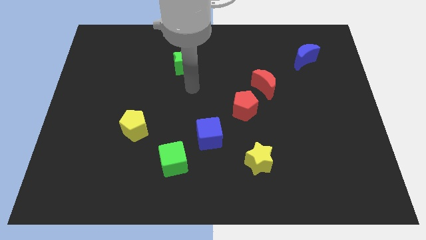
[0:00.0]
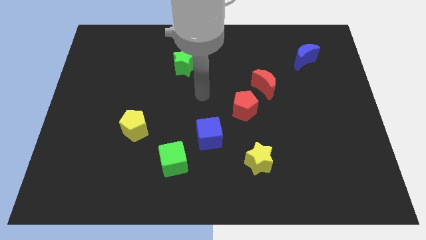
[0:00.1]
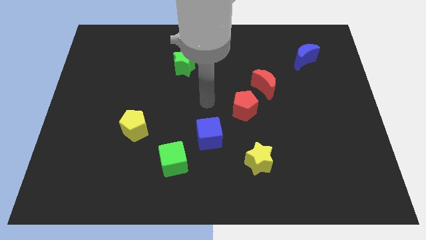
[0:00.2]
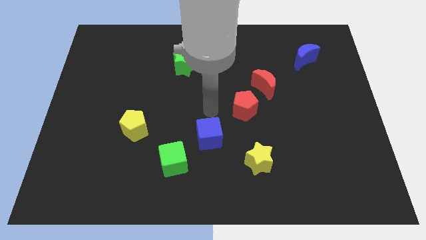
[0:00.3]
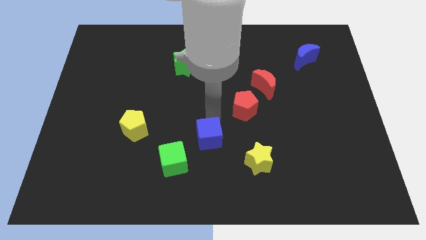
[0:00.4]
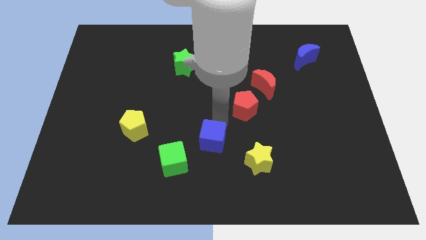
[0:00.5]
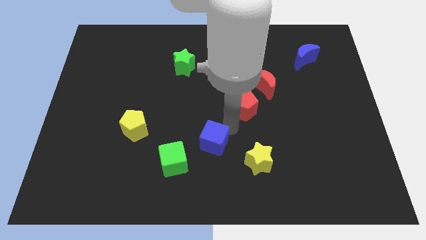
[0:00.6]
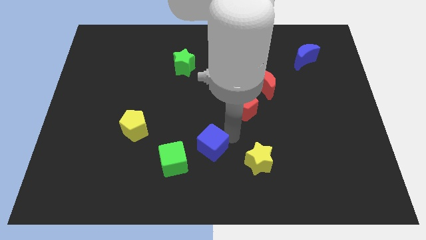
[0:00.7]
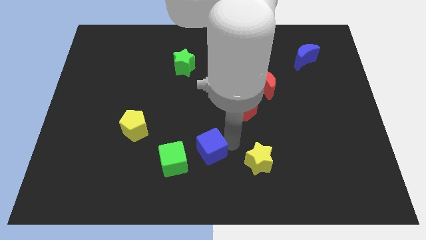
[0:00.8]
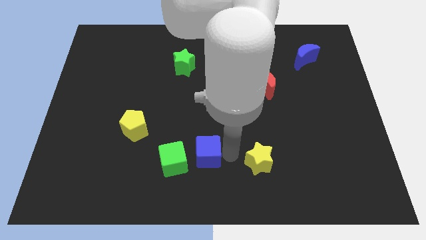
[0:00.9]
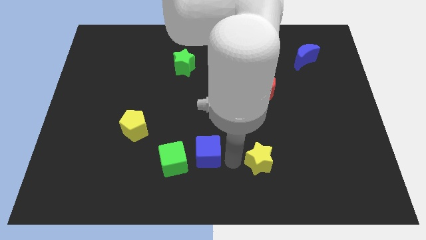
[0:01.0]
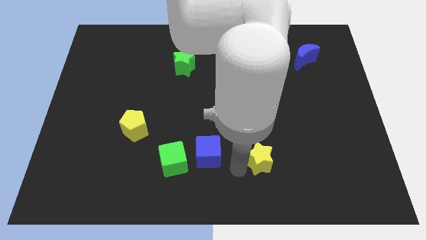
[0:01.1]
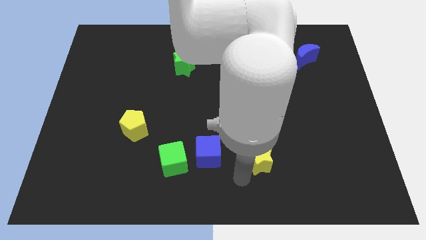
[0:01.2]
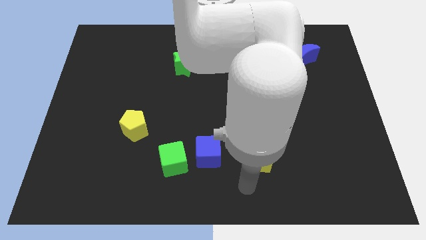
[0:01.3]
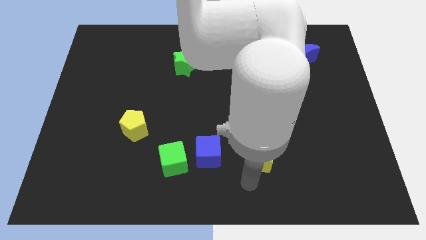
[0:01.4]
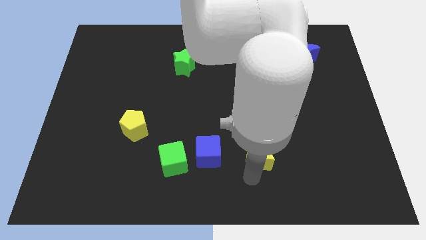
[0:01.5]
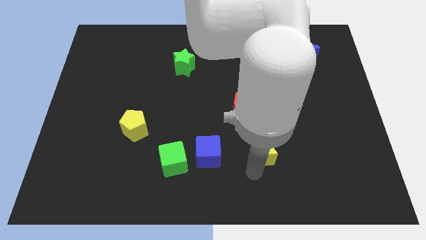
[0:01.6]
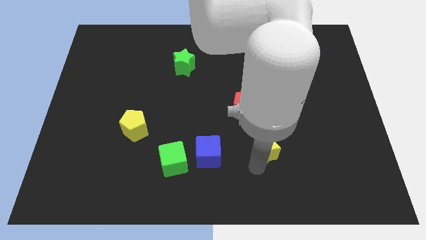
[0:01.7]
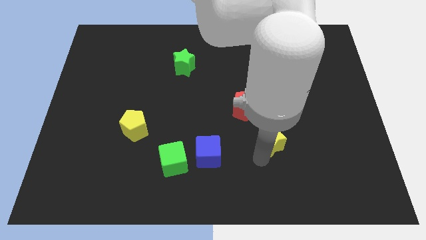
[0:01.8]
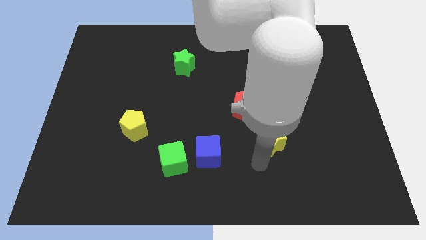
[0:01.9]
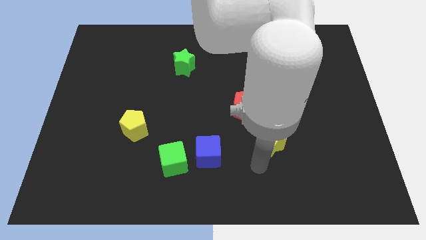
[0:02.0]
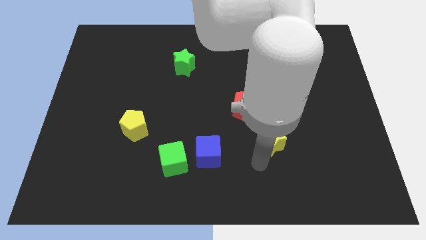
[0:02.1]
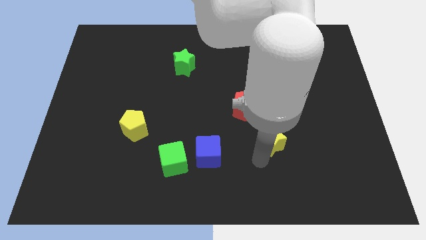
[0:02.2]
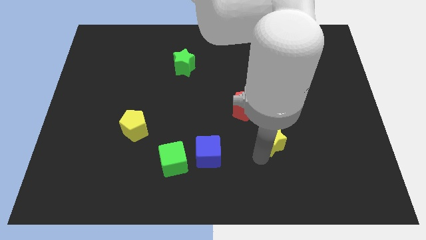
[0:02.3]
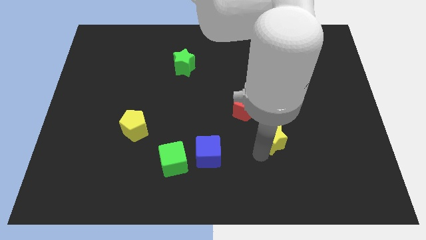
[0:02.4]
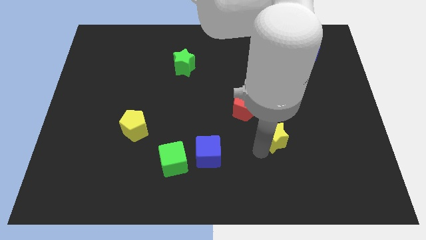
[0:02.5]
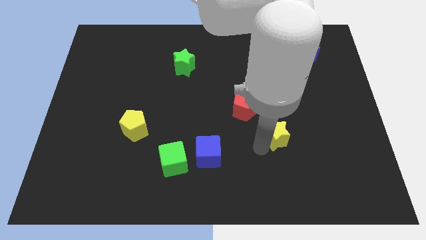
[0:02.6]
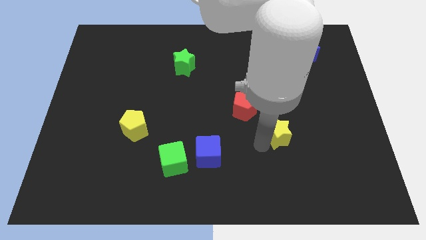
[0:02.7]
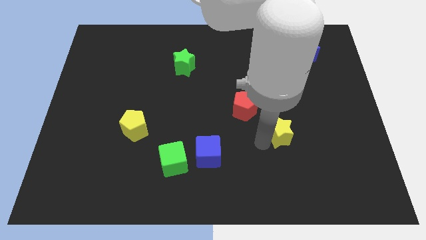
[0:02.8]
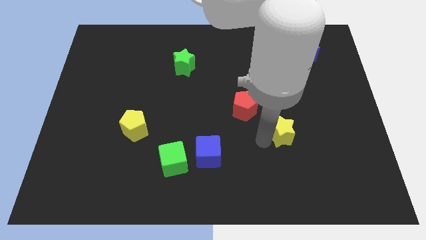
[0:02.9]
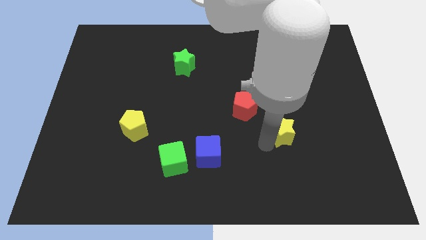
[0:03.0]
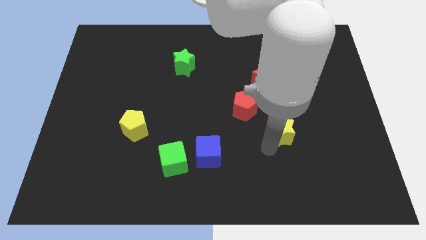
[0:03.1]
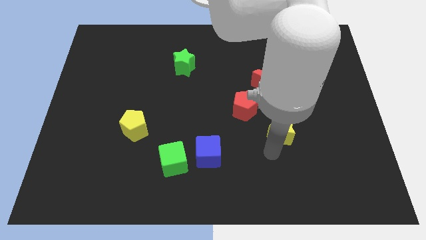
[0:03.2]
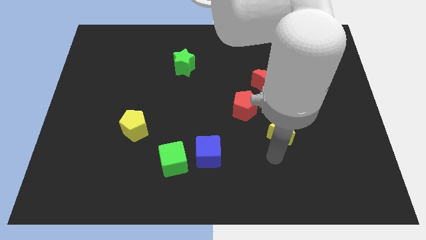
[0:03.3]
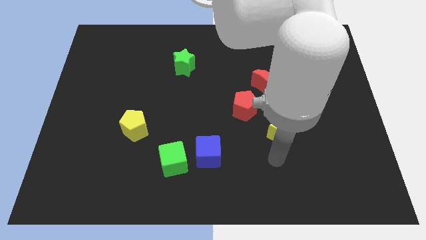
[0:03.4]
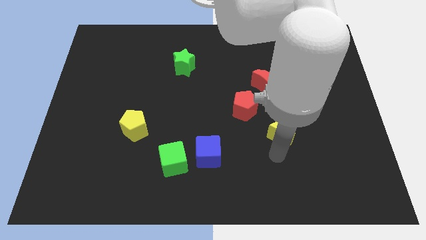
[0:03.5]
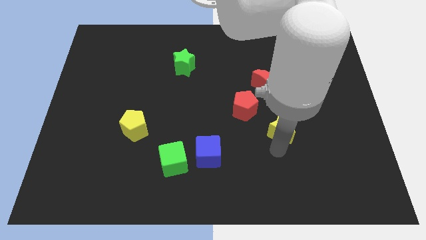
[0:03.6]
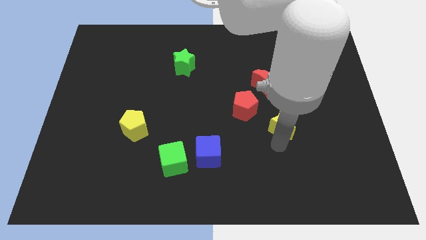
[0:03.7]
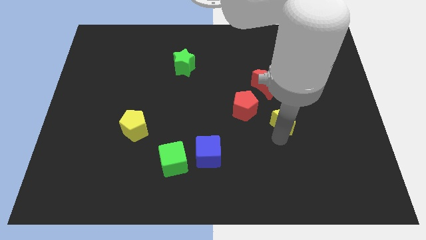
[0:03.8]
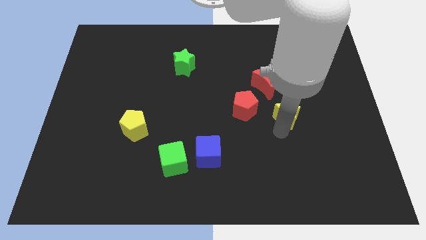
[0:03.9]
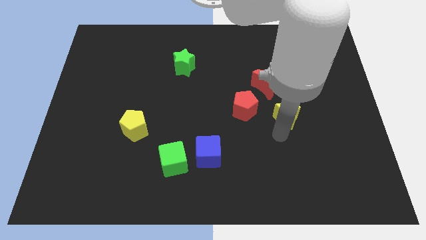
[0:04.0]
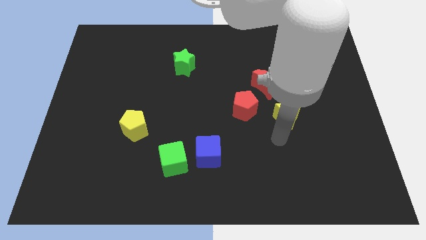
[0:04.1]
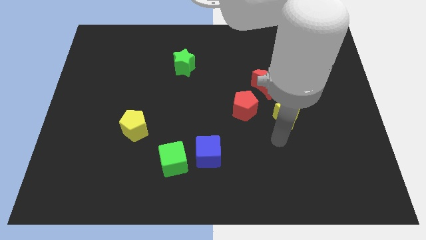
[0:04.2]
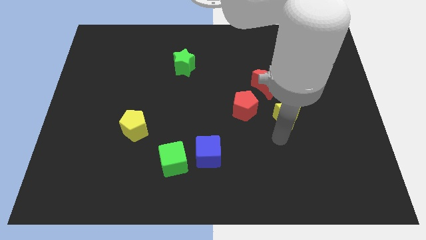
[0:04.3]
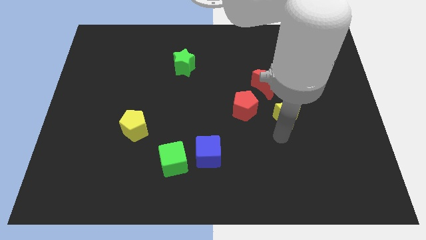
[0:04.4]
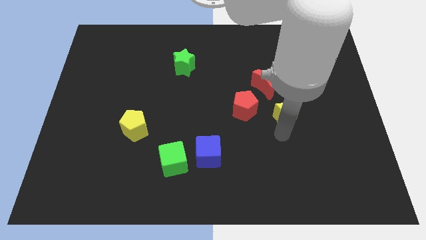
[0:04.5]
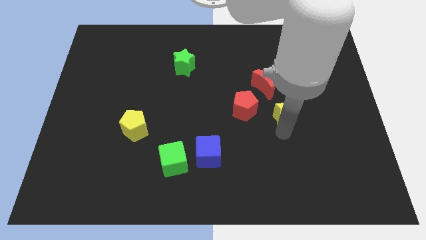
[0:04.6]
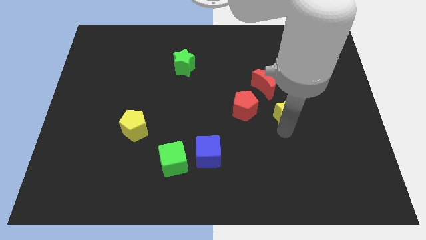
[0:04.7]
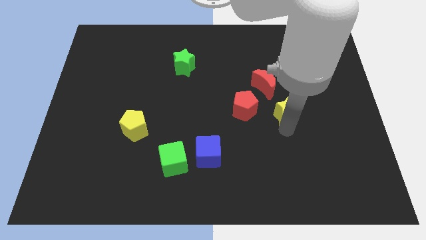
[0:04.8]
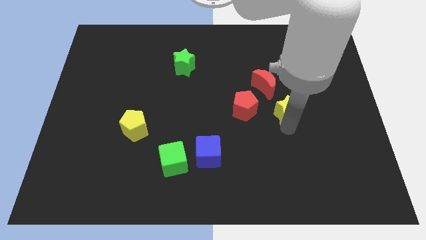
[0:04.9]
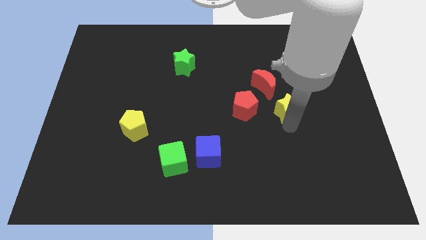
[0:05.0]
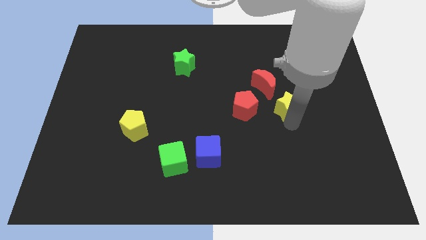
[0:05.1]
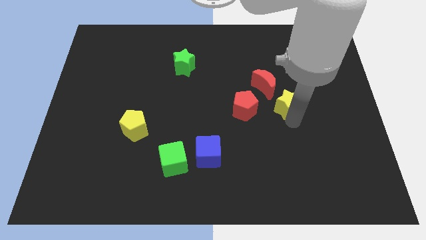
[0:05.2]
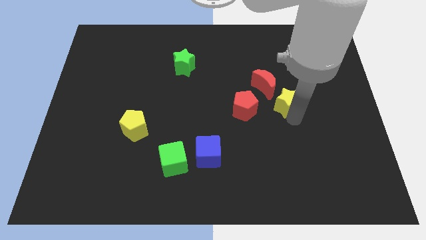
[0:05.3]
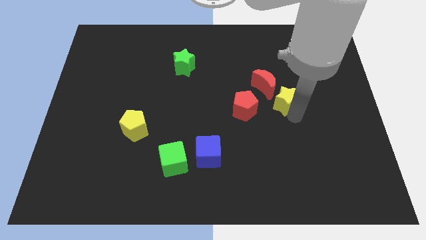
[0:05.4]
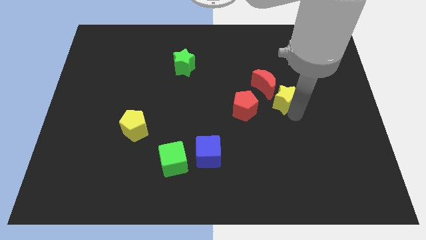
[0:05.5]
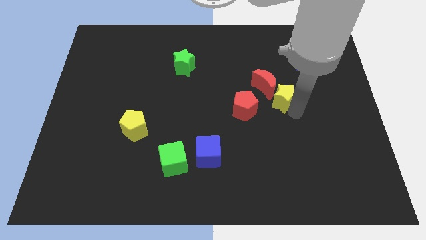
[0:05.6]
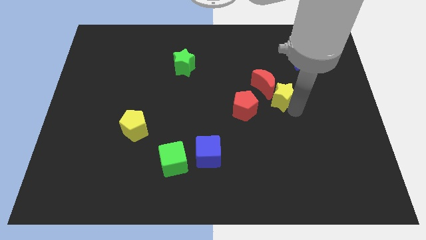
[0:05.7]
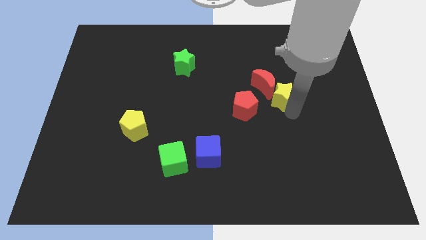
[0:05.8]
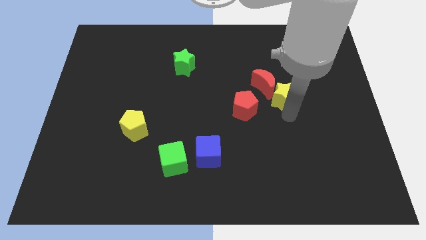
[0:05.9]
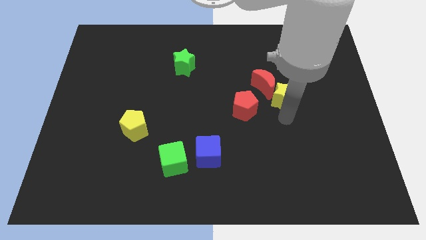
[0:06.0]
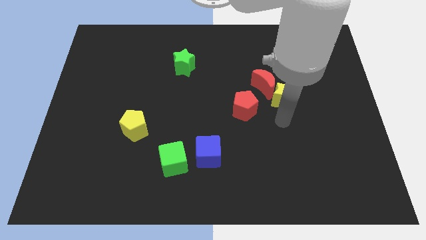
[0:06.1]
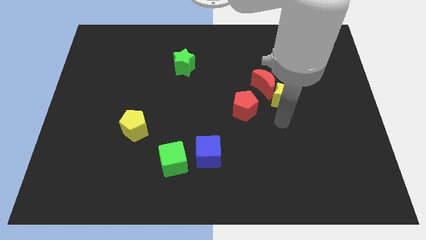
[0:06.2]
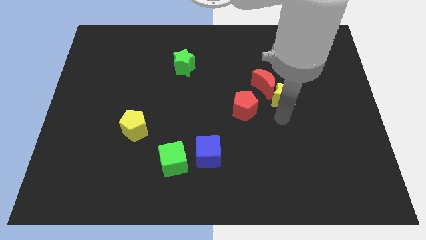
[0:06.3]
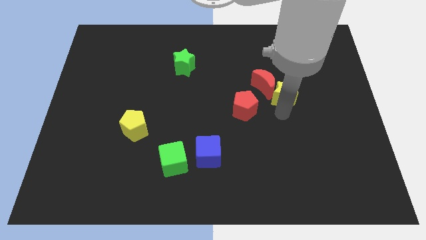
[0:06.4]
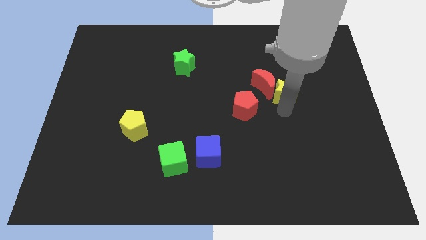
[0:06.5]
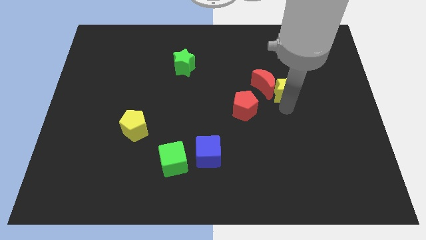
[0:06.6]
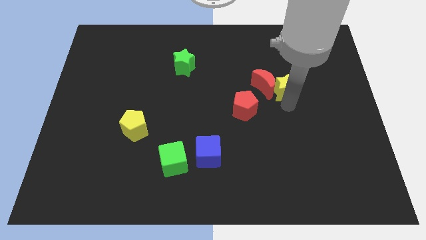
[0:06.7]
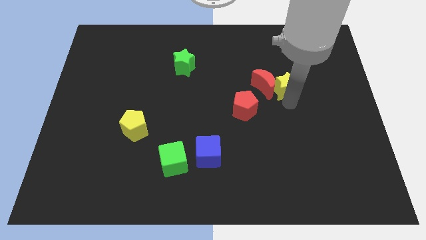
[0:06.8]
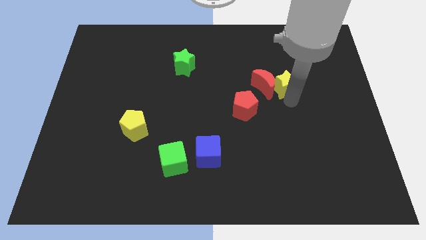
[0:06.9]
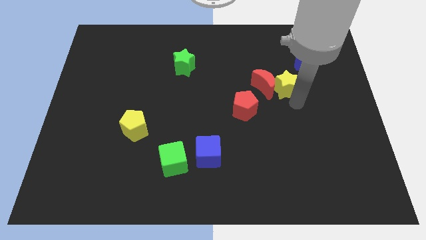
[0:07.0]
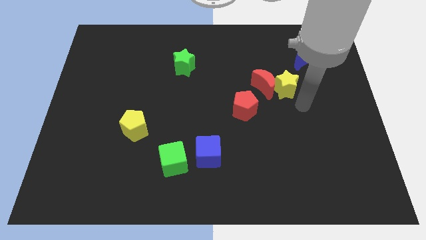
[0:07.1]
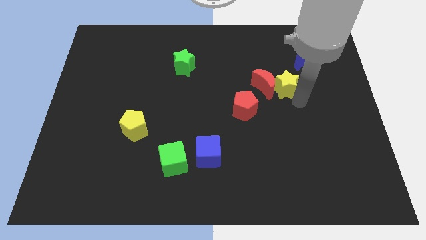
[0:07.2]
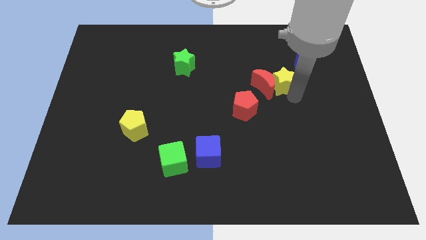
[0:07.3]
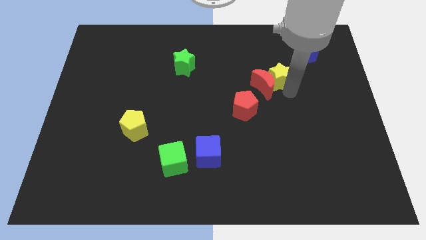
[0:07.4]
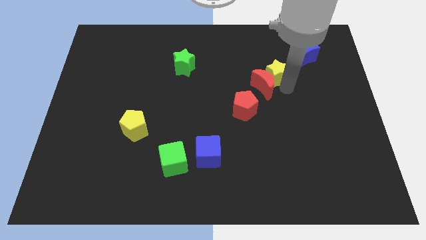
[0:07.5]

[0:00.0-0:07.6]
put the yellow star to the top side of the red moon
